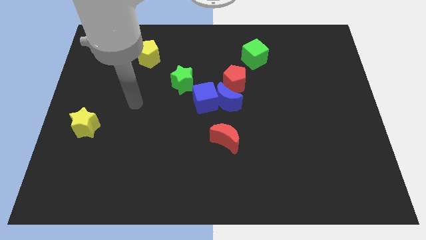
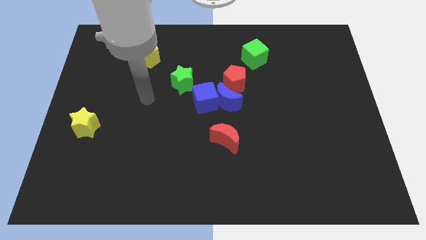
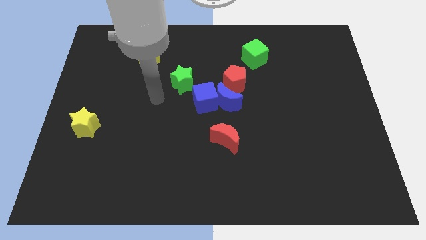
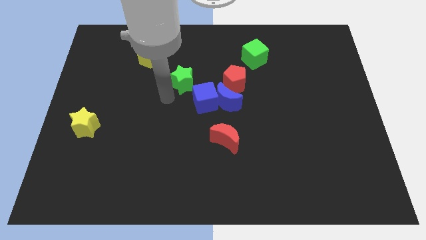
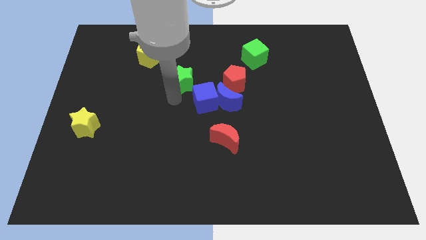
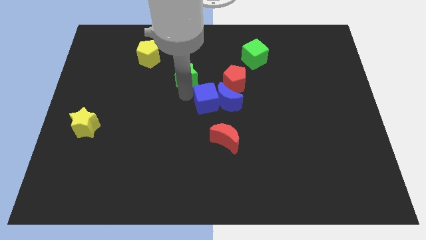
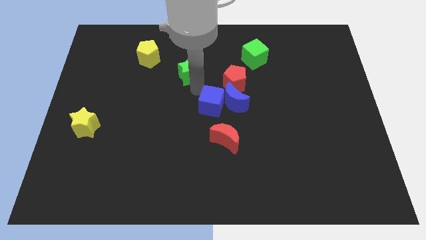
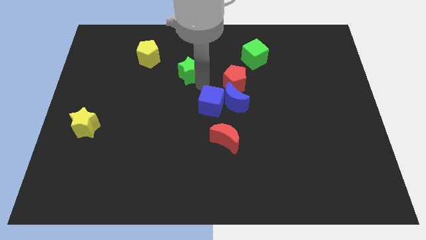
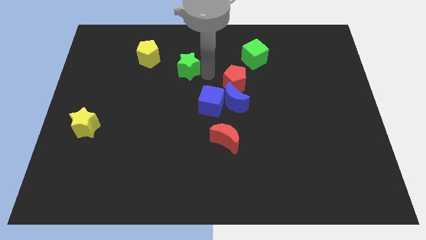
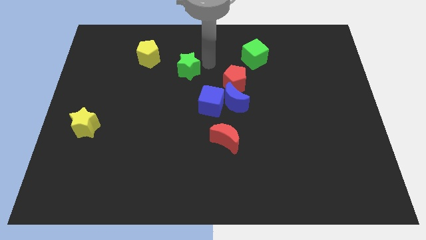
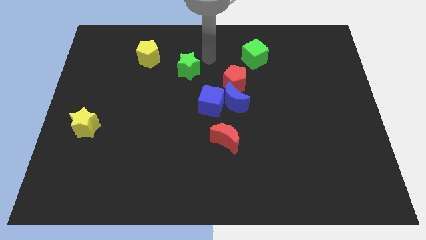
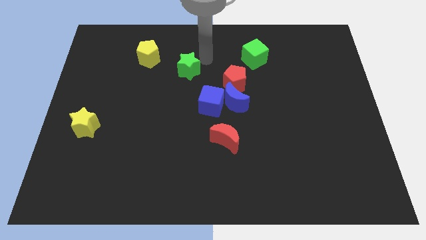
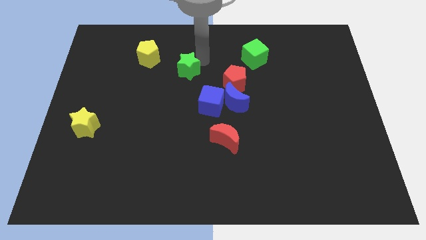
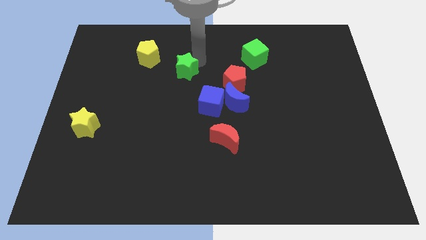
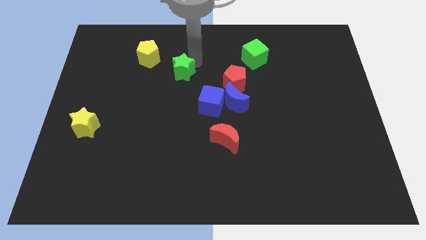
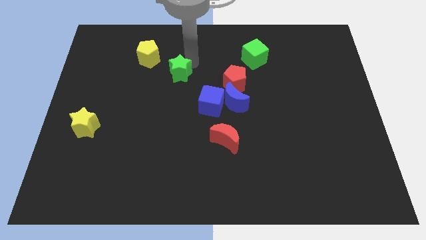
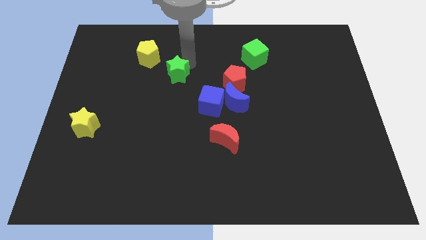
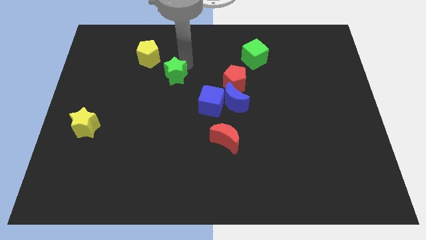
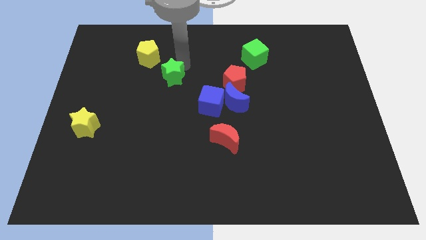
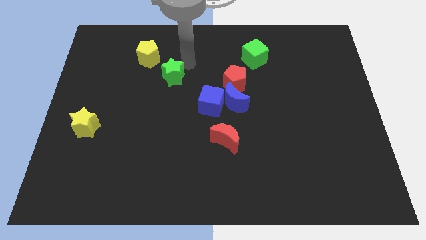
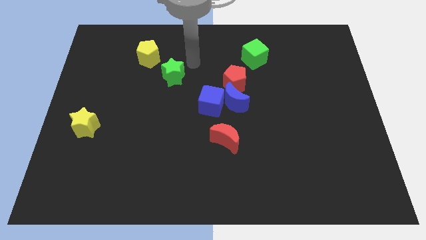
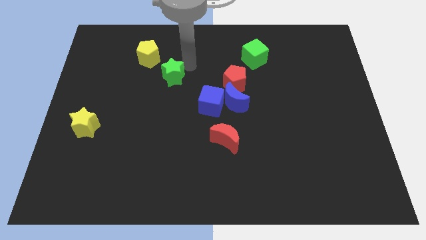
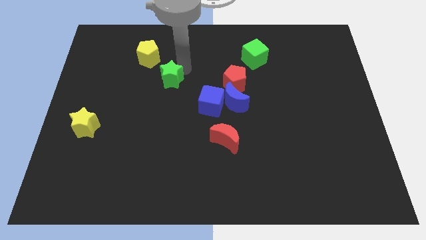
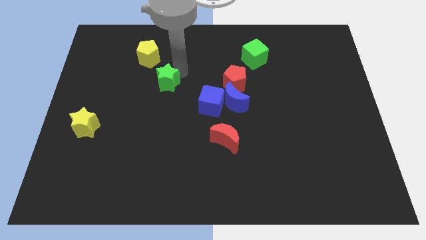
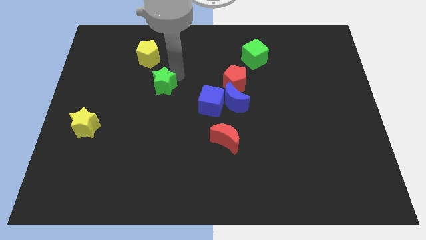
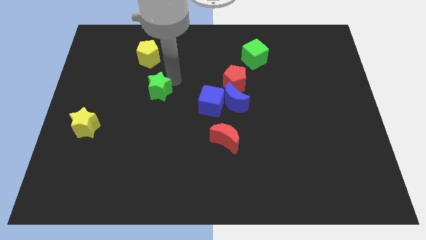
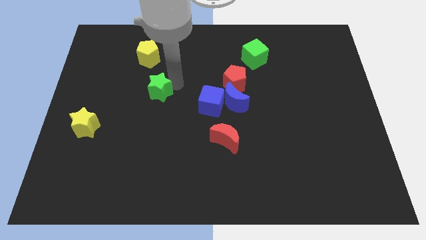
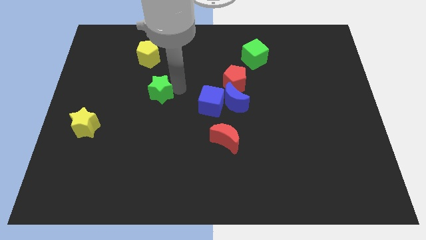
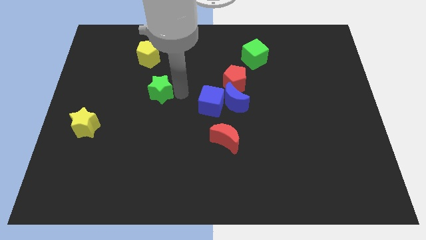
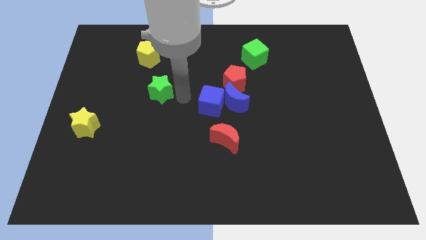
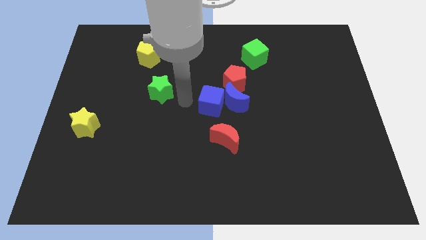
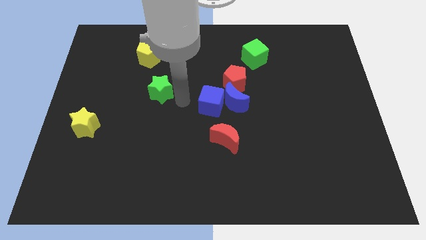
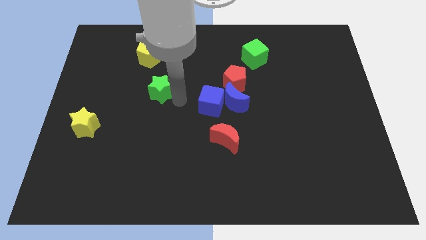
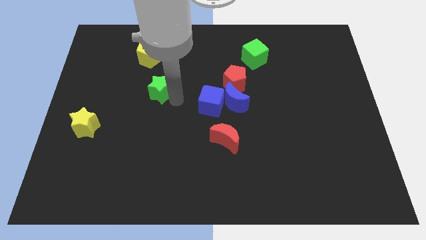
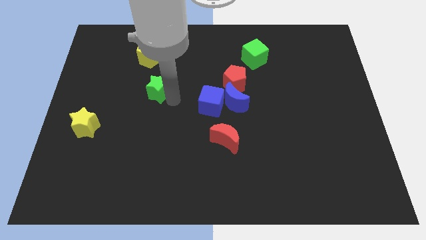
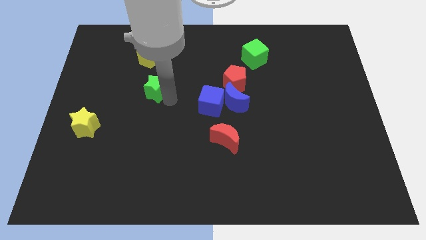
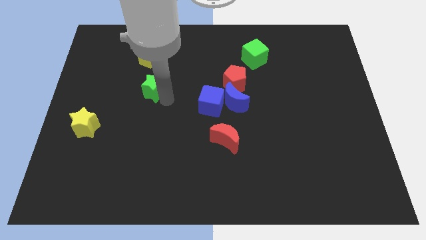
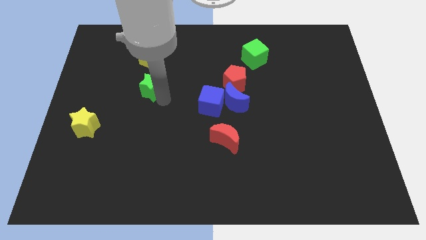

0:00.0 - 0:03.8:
slide the green star slightly to the left

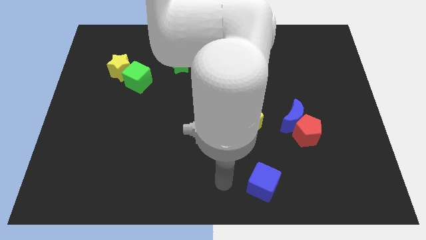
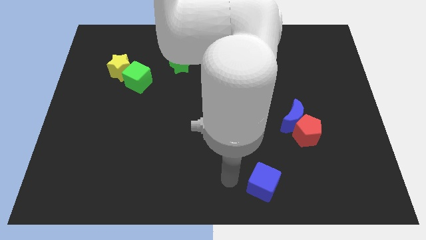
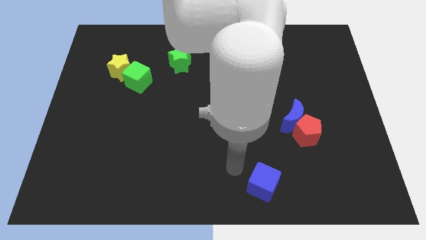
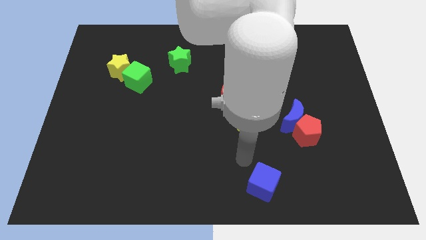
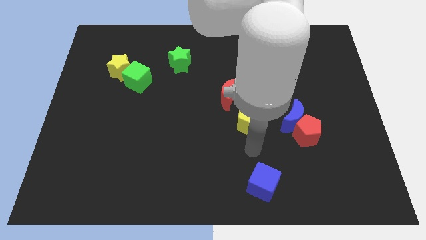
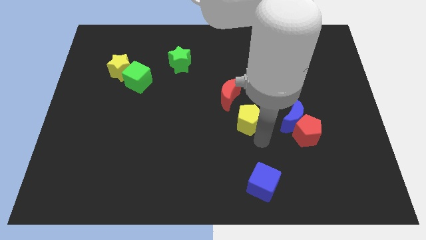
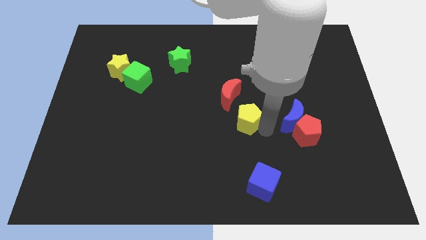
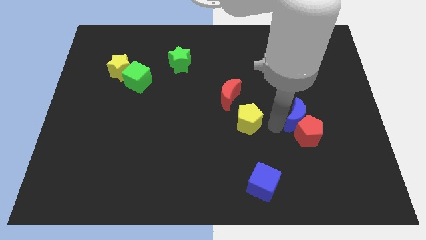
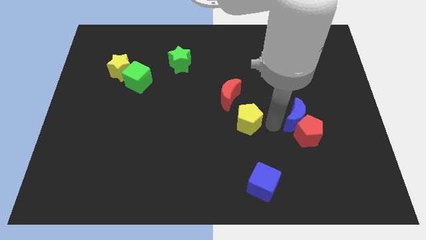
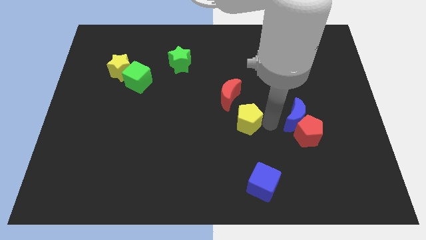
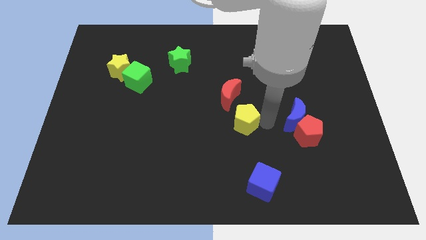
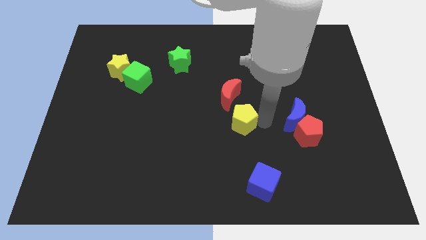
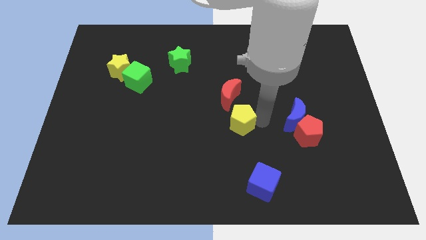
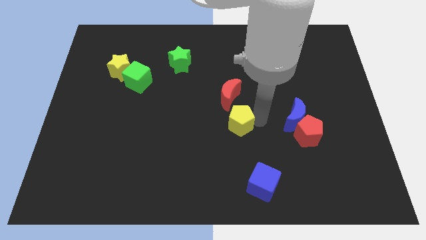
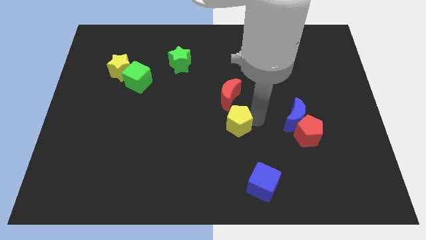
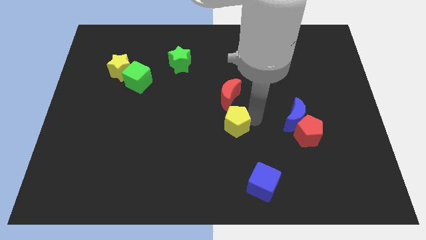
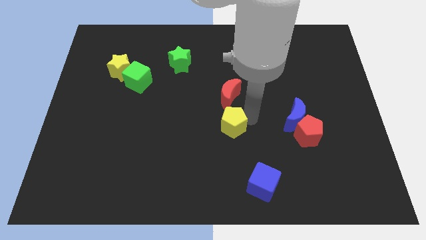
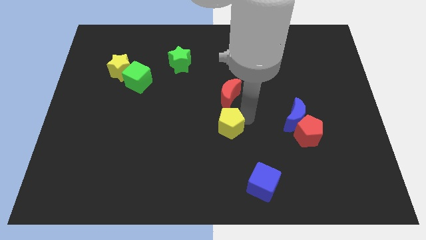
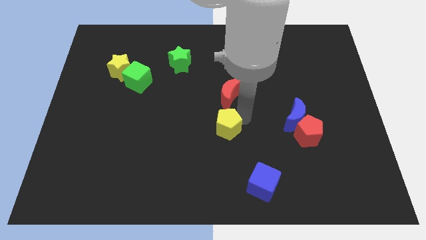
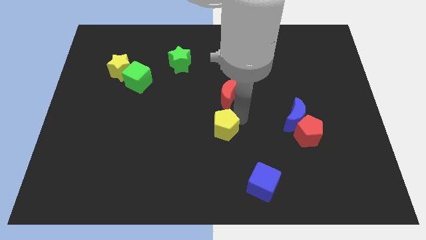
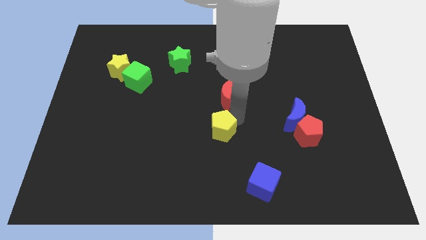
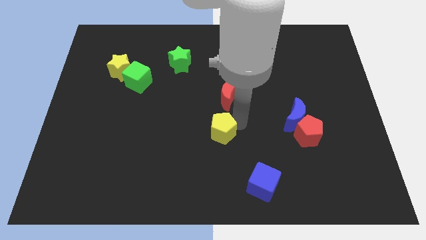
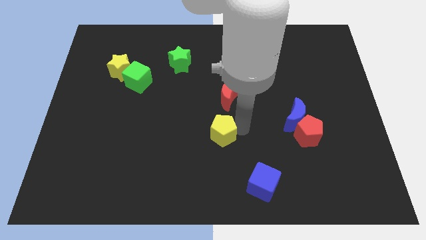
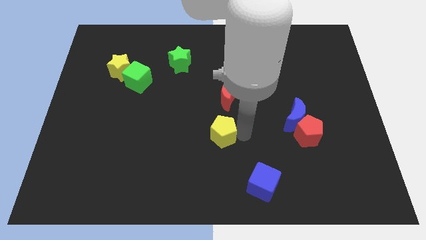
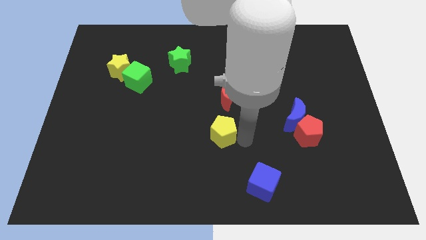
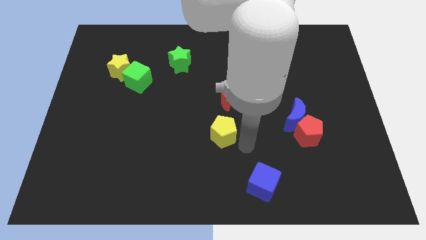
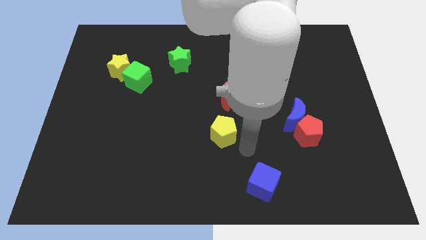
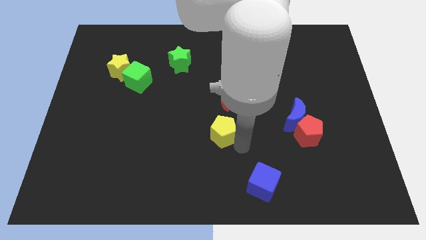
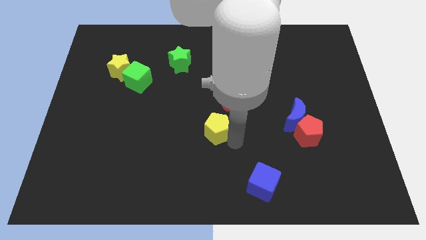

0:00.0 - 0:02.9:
slightly move the yellow pentagon to the left

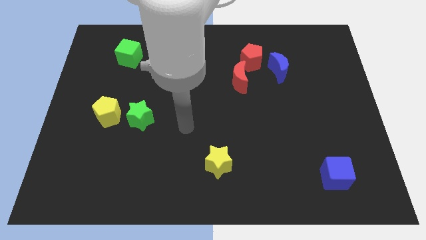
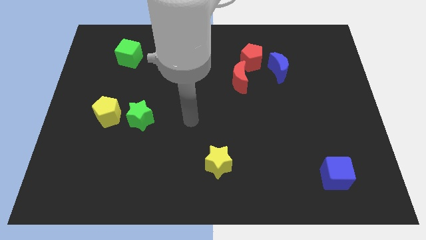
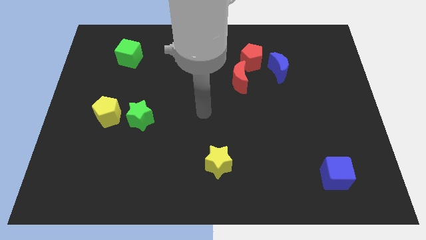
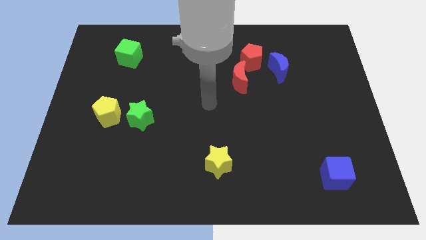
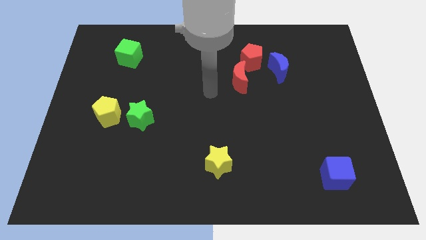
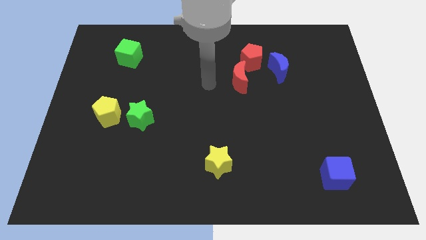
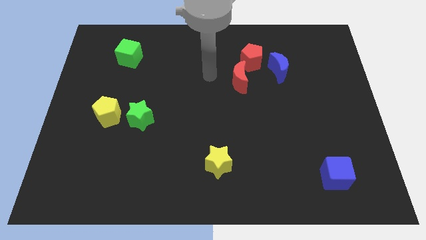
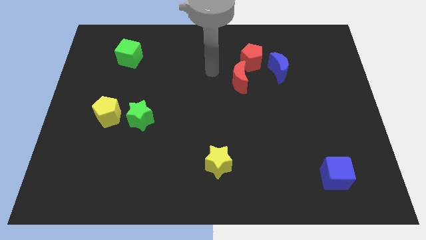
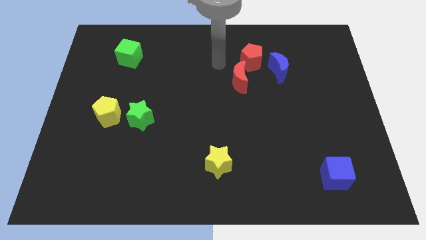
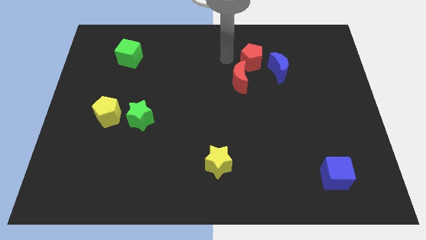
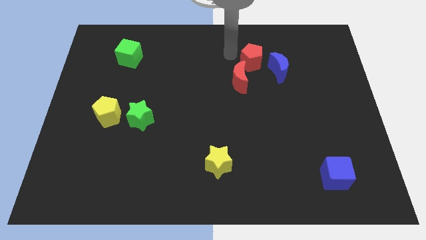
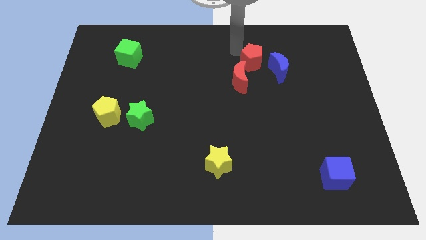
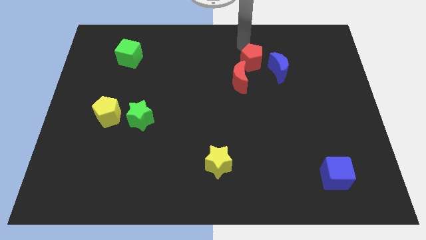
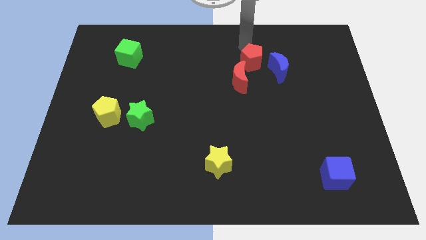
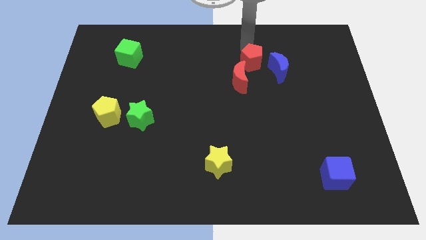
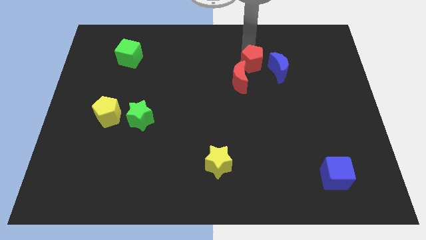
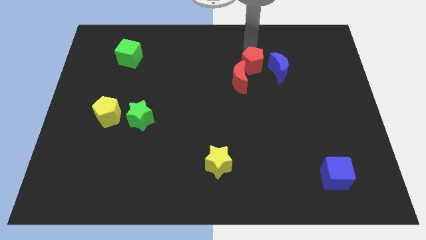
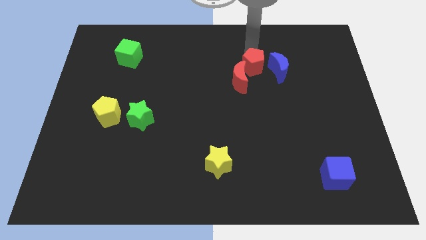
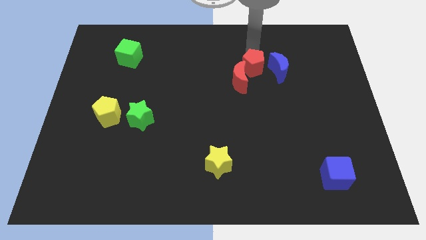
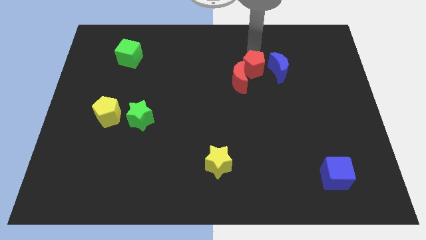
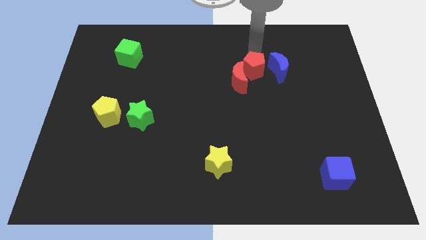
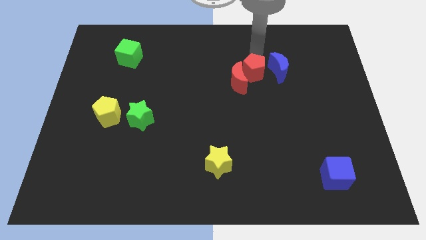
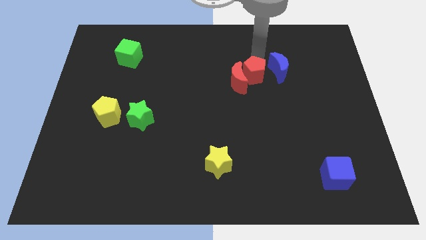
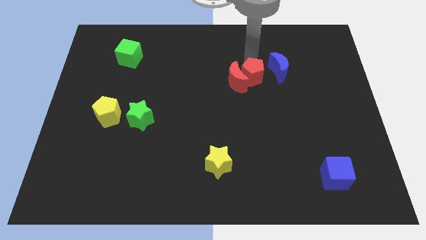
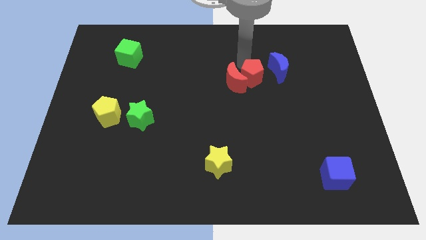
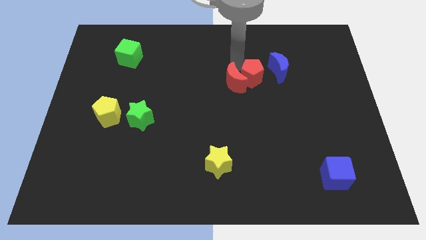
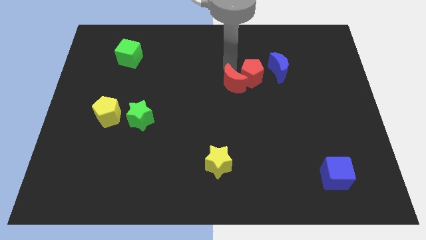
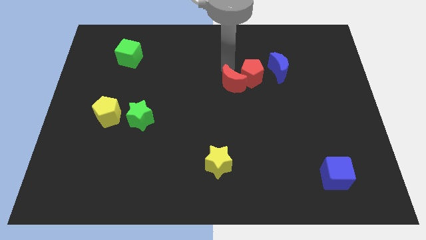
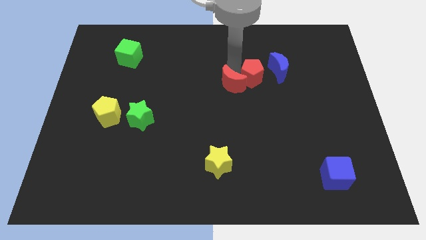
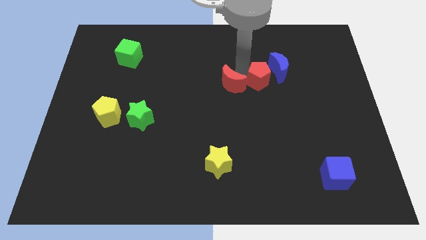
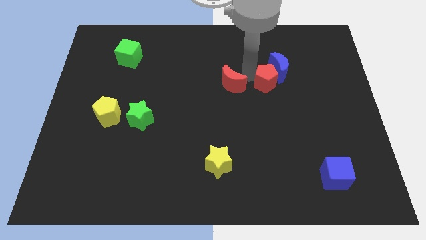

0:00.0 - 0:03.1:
move the red pentagon downwards and right somewhat
